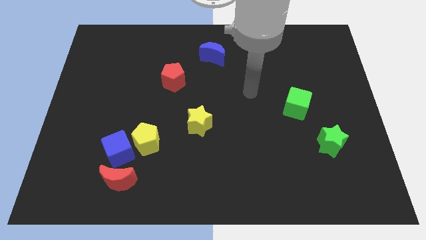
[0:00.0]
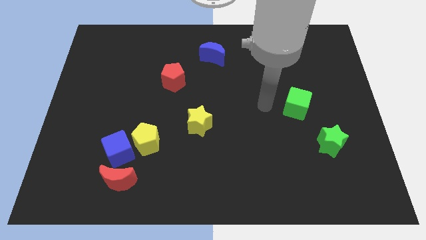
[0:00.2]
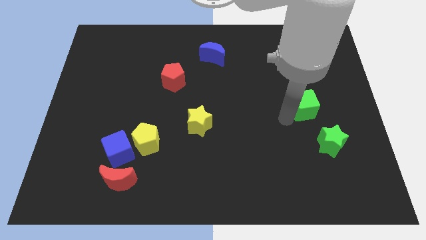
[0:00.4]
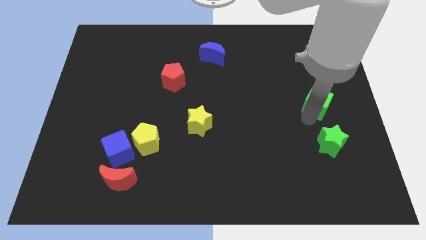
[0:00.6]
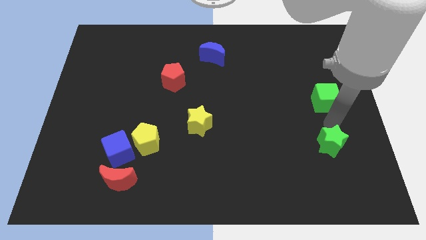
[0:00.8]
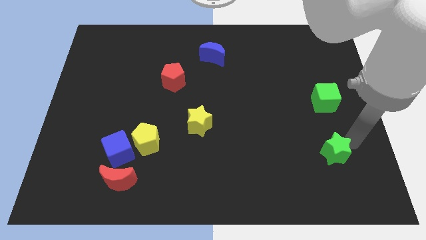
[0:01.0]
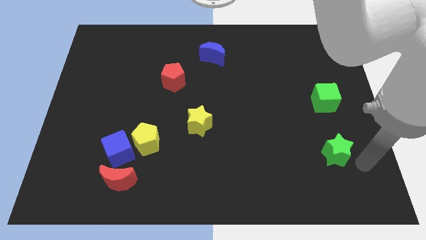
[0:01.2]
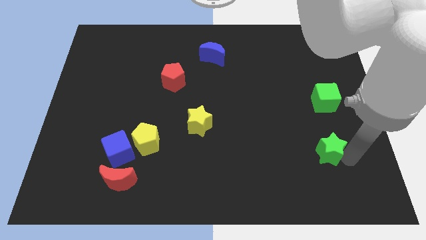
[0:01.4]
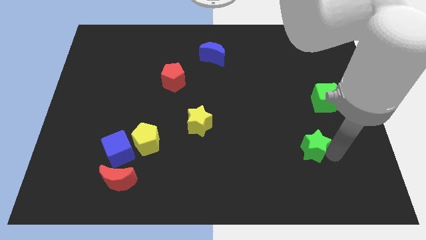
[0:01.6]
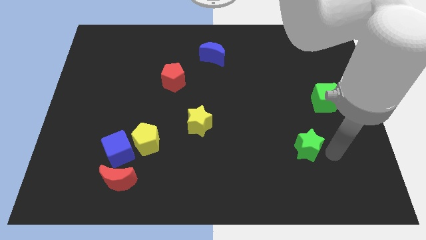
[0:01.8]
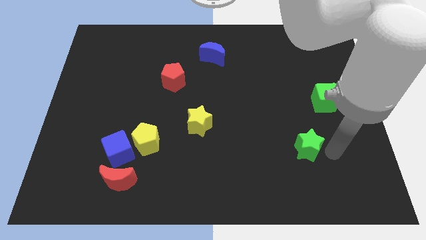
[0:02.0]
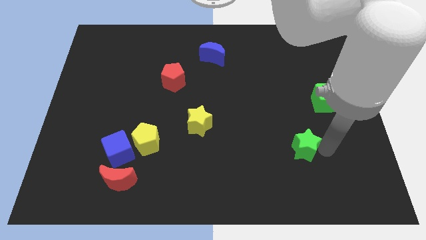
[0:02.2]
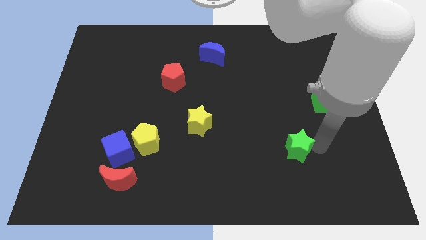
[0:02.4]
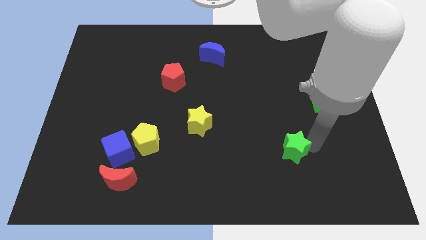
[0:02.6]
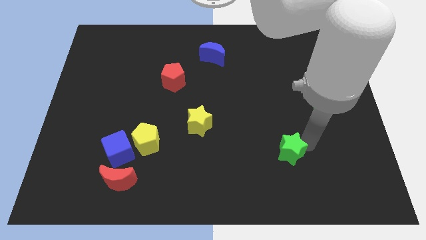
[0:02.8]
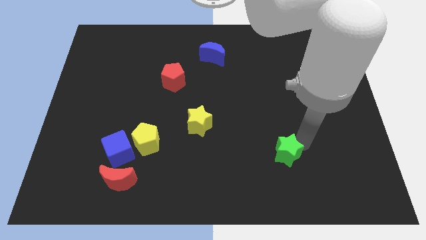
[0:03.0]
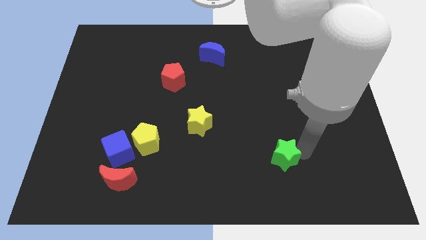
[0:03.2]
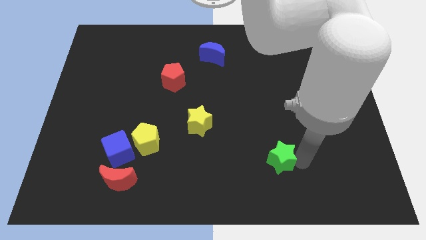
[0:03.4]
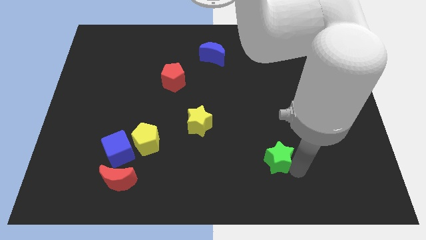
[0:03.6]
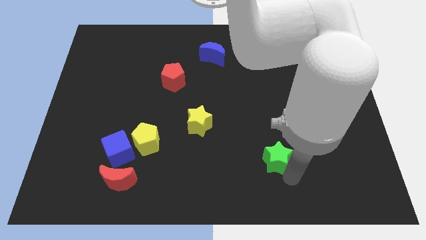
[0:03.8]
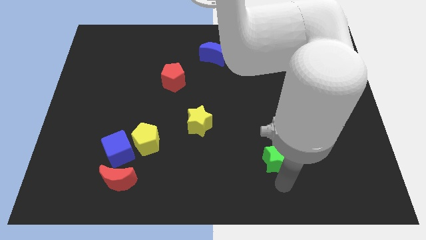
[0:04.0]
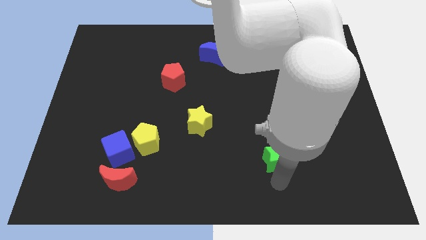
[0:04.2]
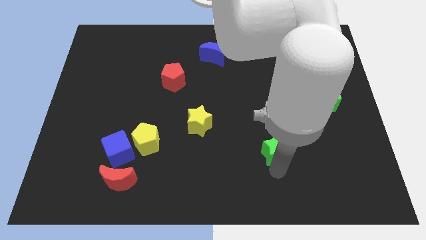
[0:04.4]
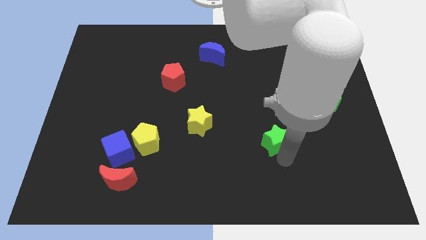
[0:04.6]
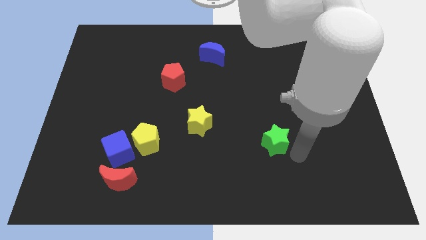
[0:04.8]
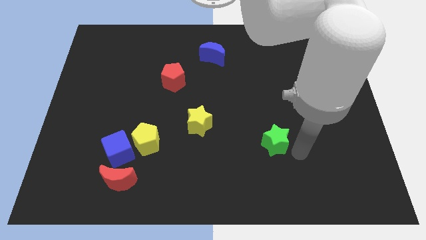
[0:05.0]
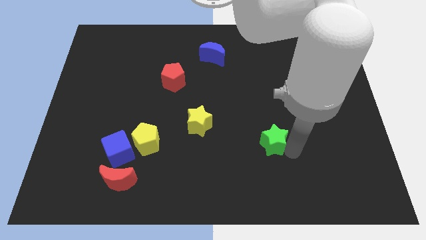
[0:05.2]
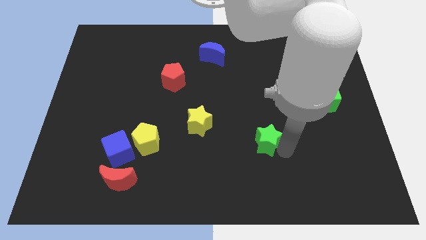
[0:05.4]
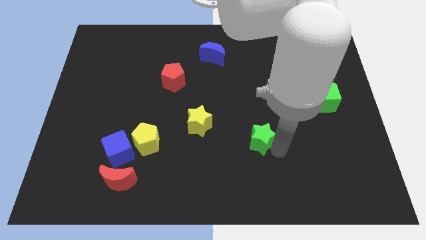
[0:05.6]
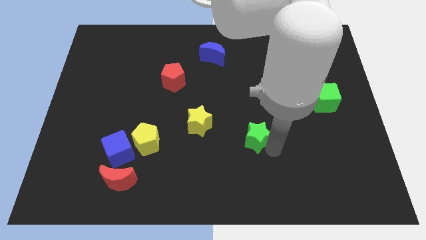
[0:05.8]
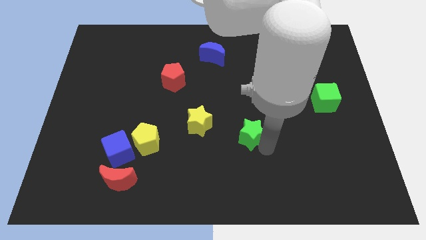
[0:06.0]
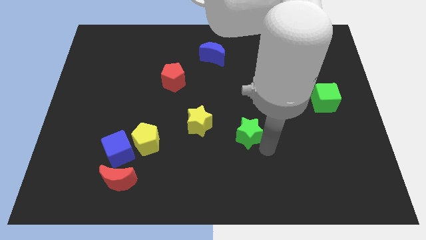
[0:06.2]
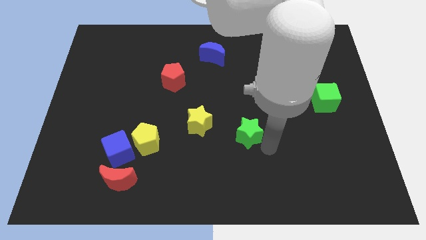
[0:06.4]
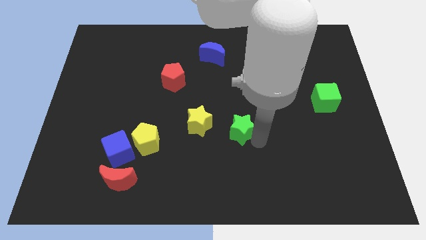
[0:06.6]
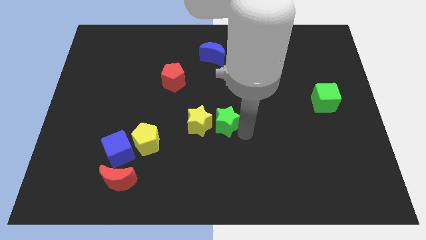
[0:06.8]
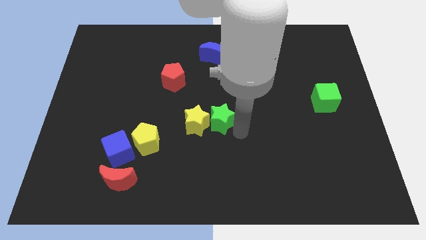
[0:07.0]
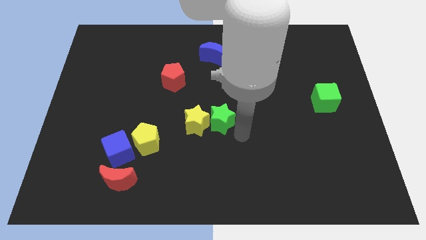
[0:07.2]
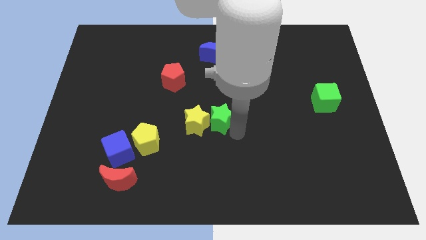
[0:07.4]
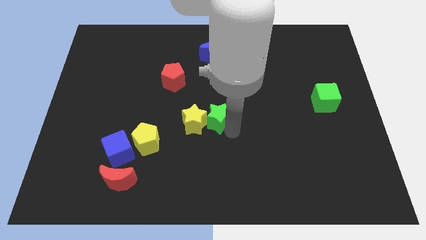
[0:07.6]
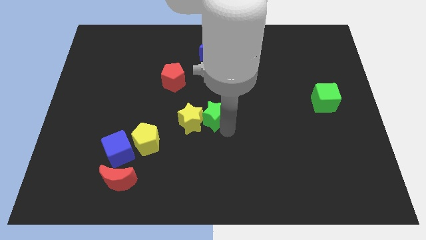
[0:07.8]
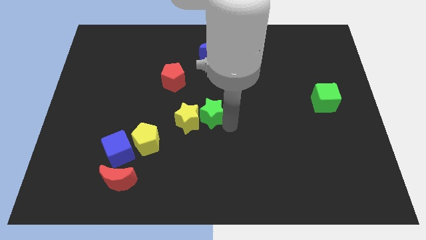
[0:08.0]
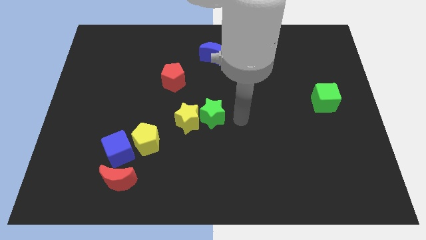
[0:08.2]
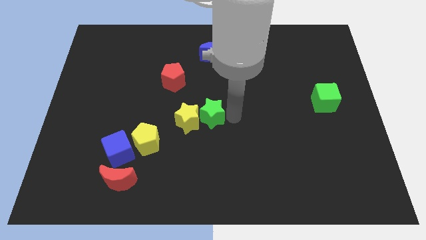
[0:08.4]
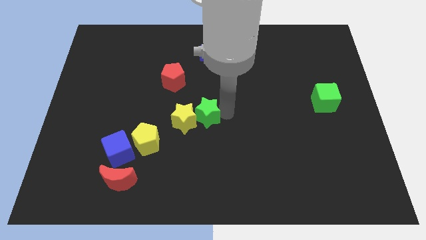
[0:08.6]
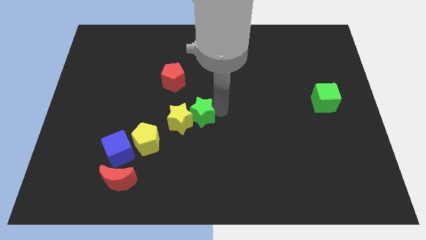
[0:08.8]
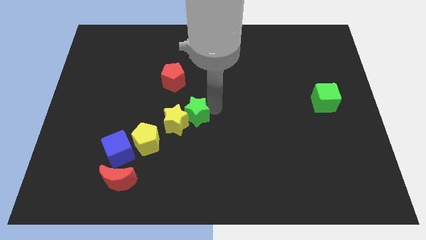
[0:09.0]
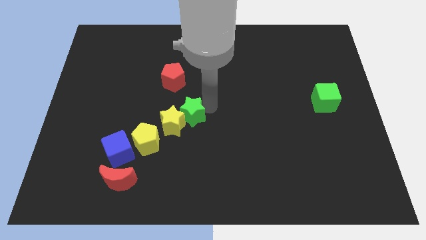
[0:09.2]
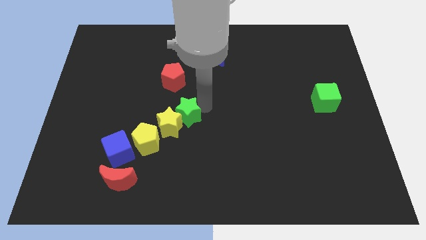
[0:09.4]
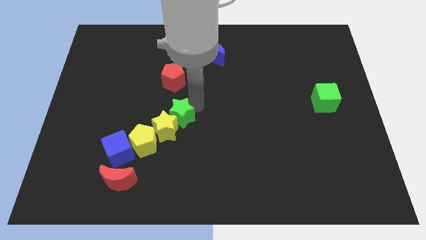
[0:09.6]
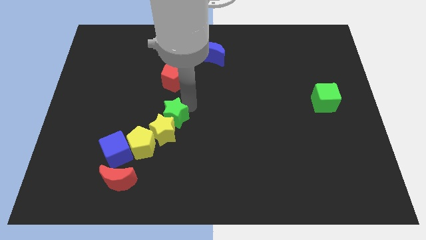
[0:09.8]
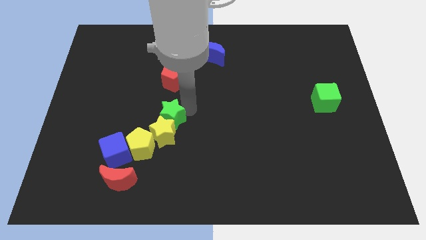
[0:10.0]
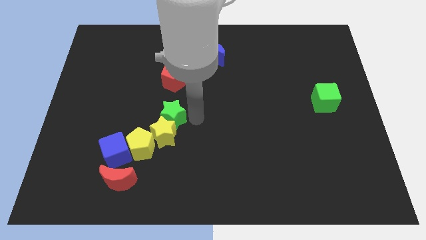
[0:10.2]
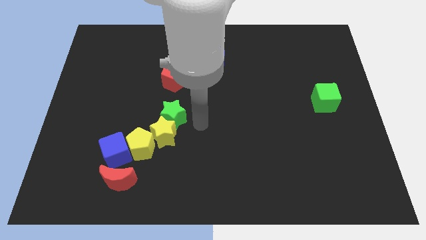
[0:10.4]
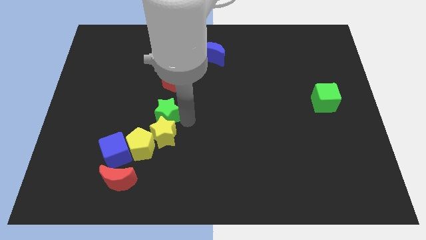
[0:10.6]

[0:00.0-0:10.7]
put the green star to the top of the yellow pentagon

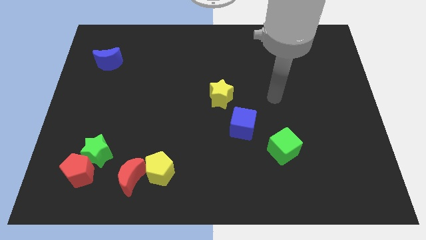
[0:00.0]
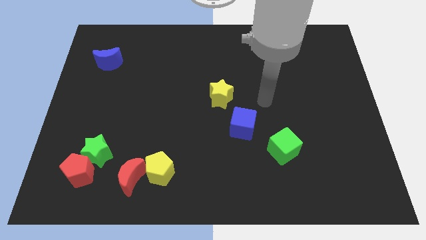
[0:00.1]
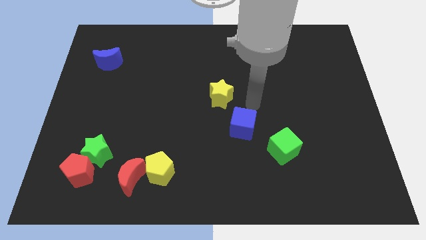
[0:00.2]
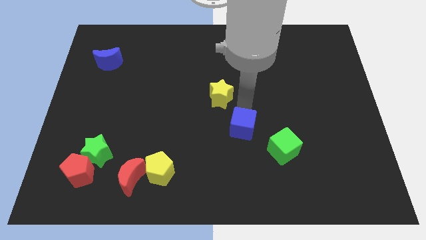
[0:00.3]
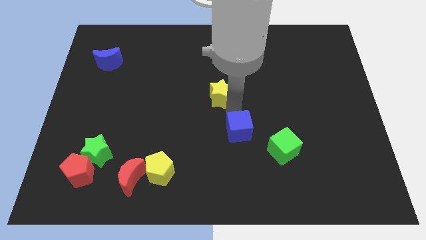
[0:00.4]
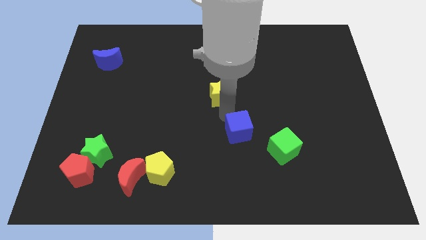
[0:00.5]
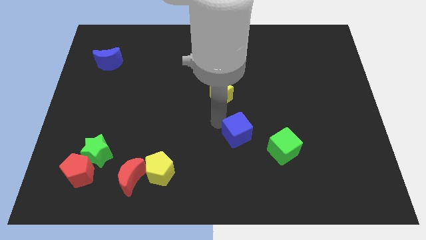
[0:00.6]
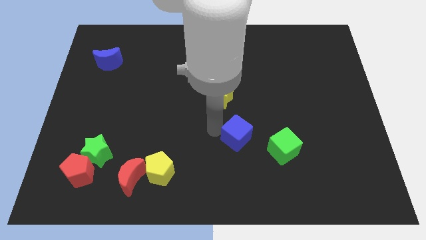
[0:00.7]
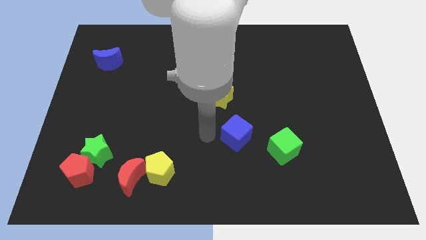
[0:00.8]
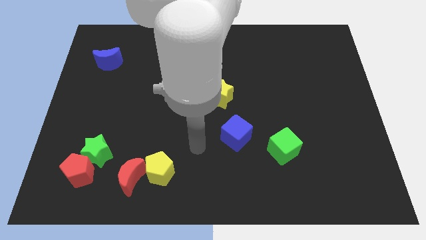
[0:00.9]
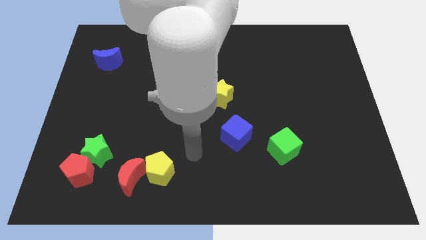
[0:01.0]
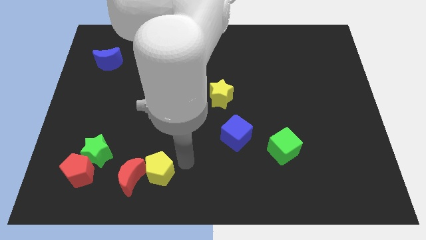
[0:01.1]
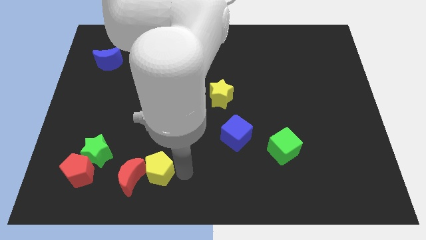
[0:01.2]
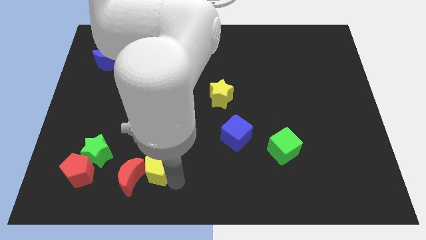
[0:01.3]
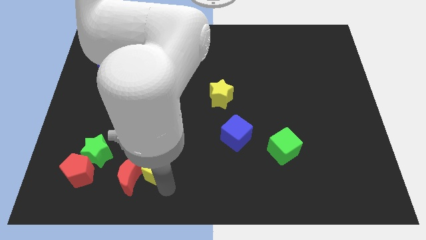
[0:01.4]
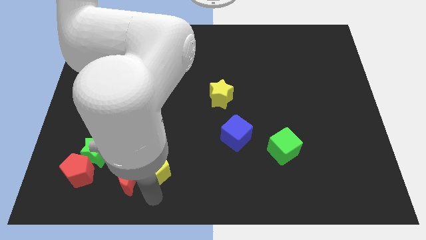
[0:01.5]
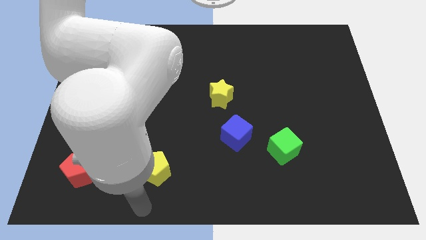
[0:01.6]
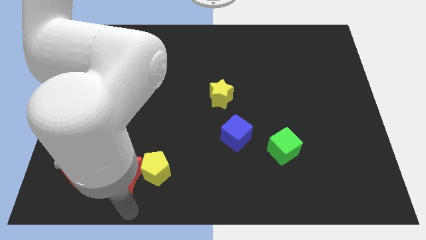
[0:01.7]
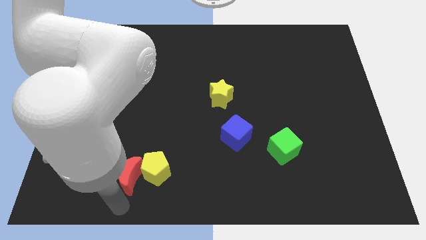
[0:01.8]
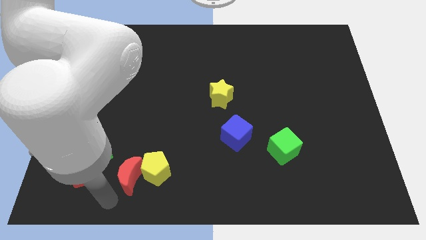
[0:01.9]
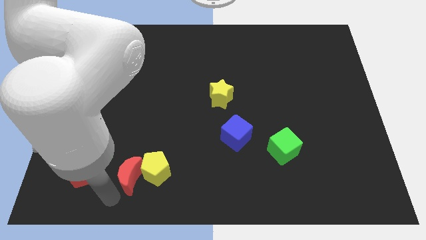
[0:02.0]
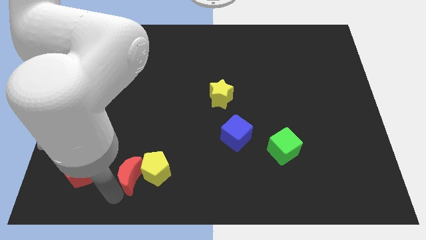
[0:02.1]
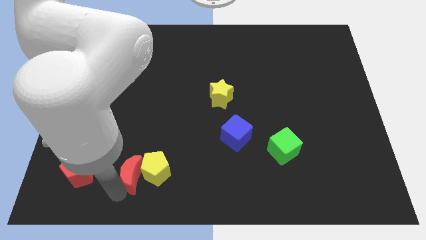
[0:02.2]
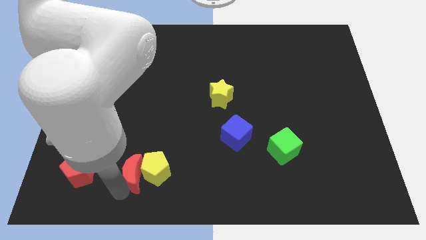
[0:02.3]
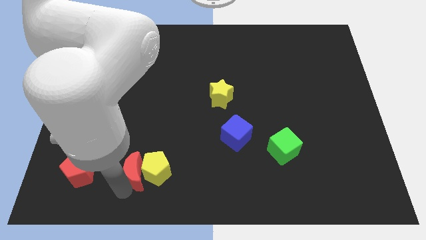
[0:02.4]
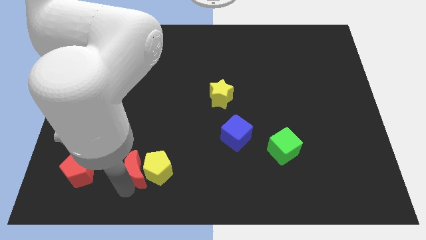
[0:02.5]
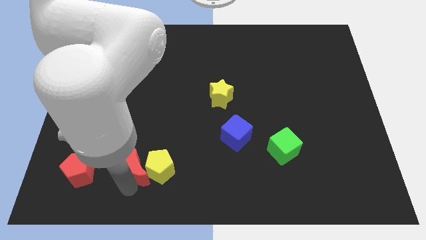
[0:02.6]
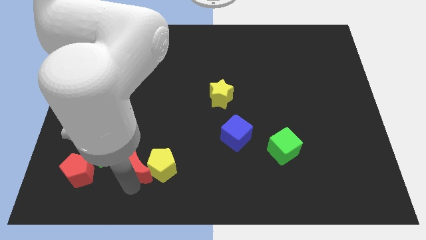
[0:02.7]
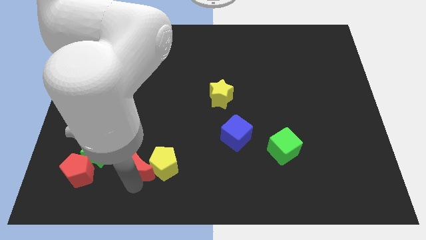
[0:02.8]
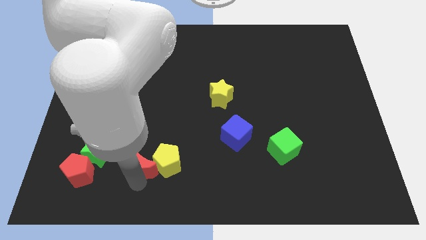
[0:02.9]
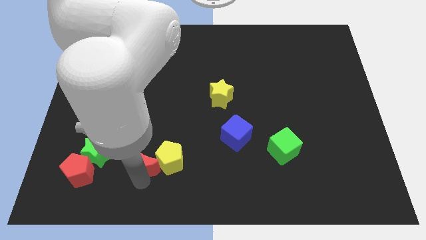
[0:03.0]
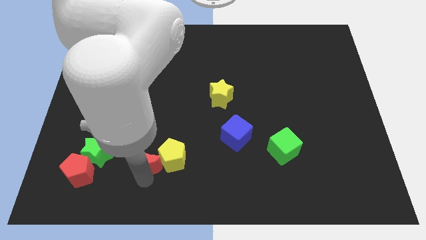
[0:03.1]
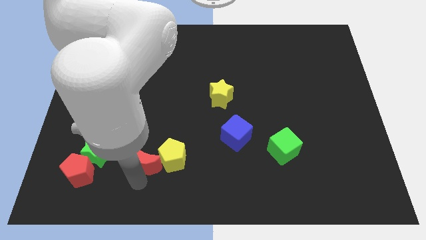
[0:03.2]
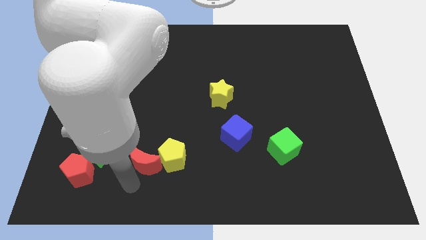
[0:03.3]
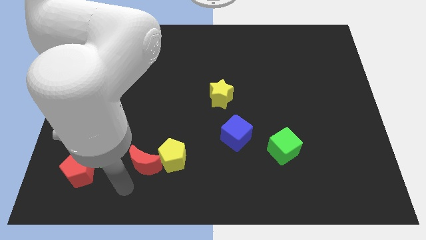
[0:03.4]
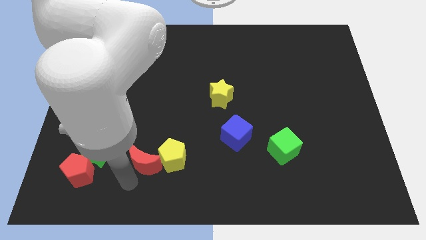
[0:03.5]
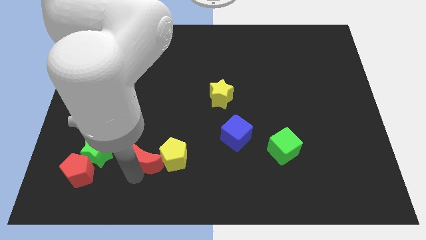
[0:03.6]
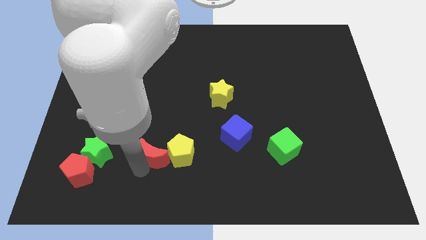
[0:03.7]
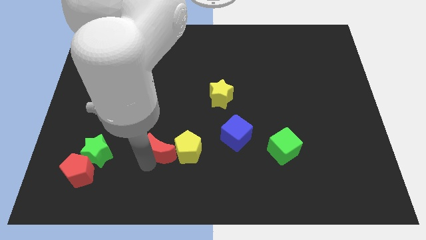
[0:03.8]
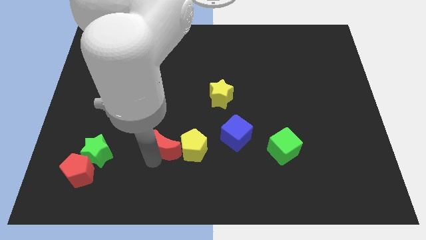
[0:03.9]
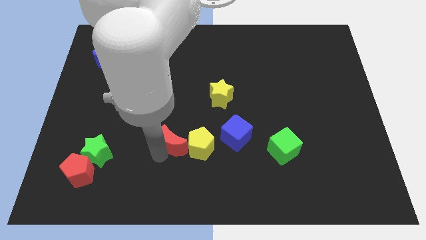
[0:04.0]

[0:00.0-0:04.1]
put the red moon to the left of the blue cube
